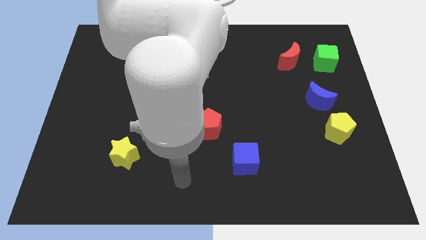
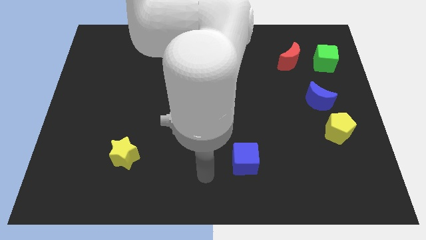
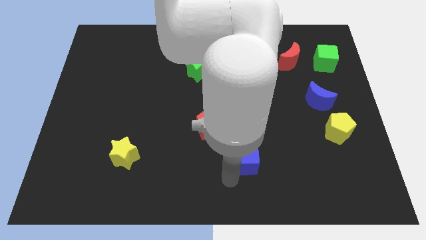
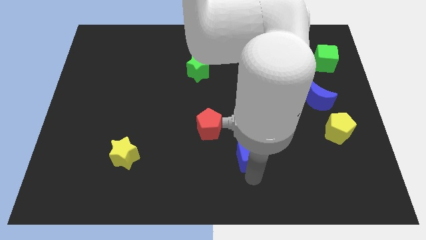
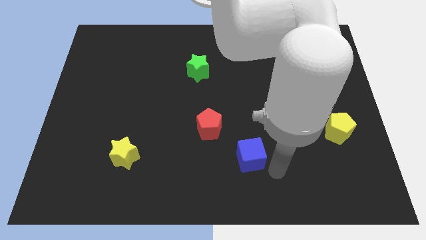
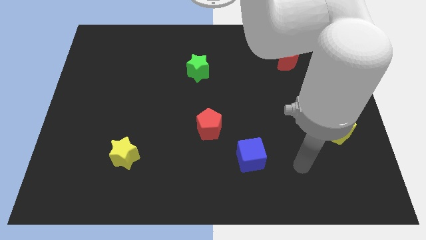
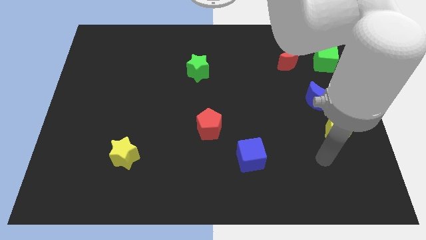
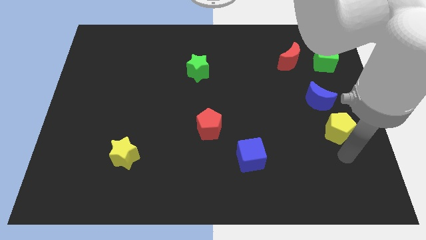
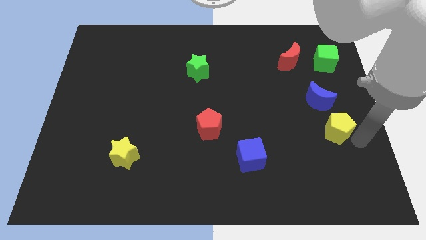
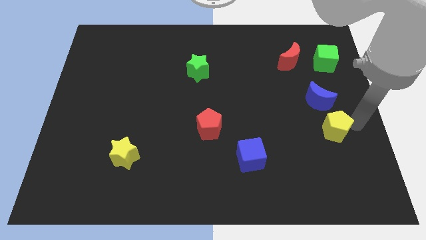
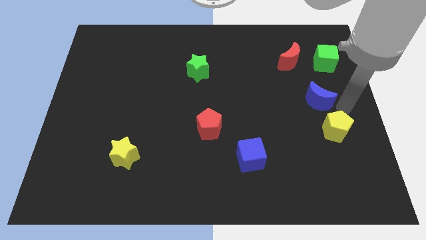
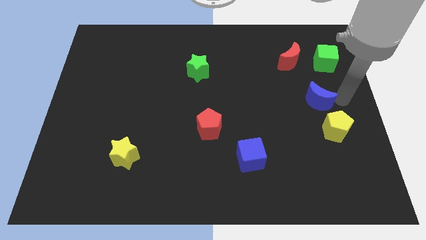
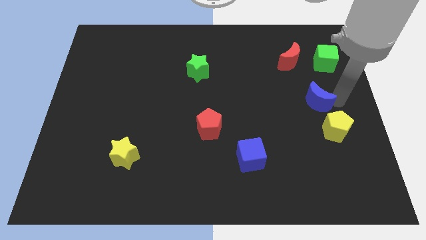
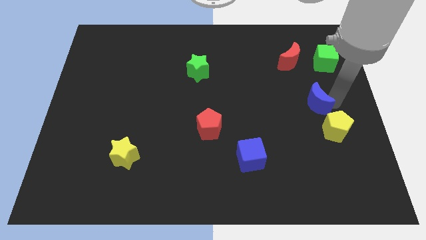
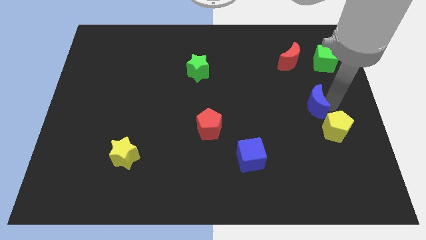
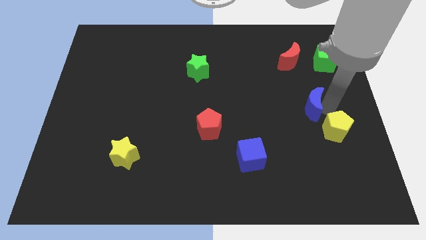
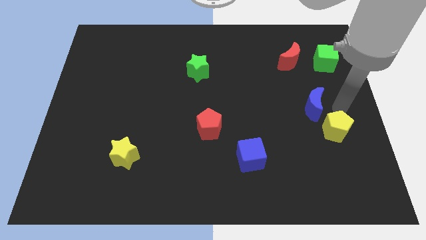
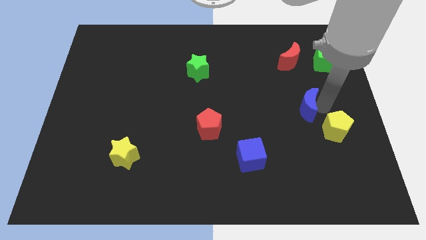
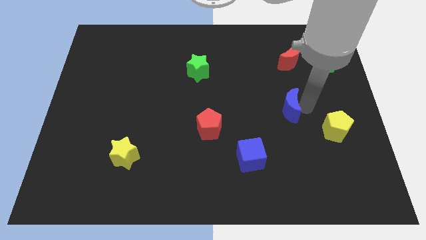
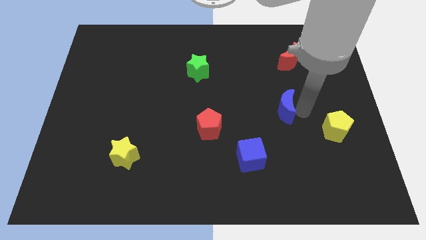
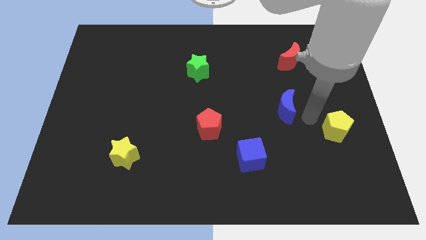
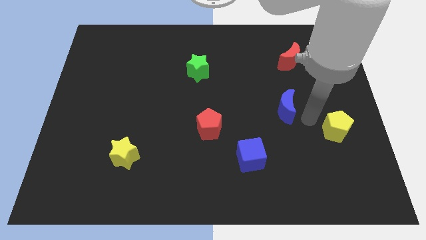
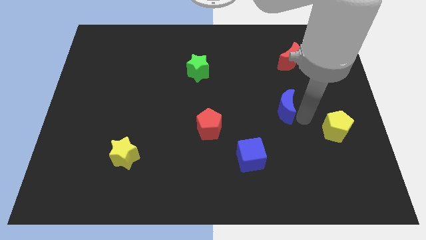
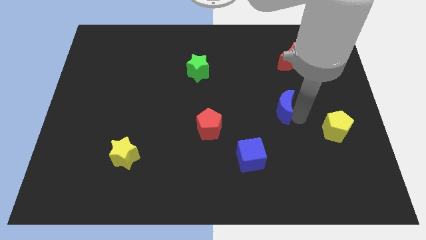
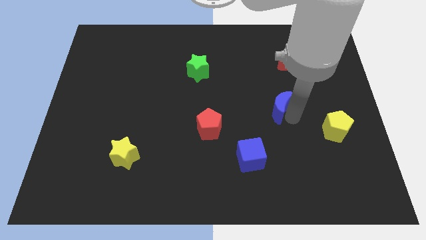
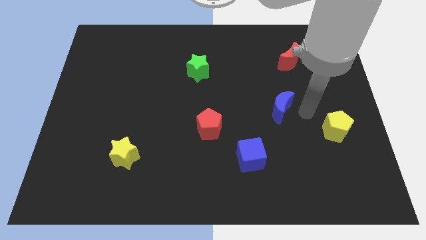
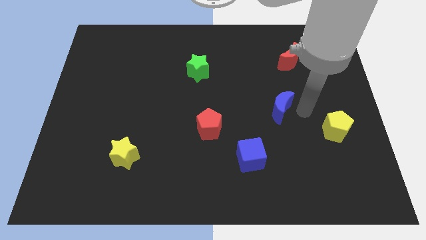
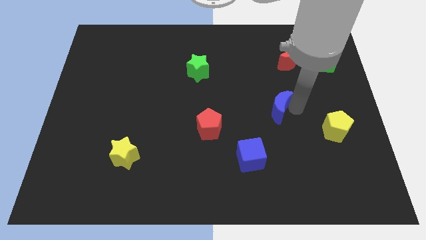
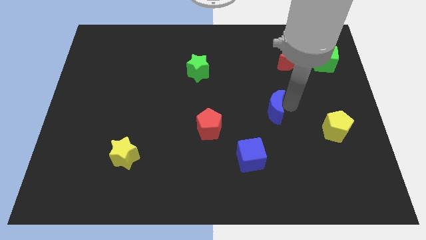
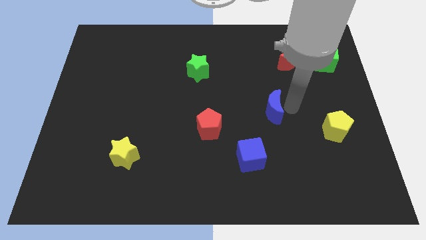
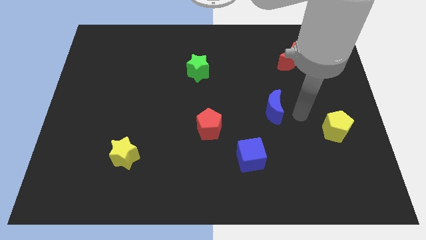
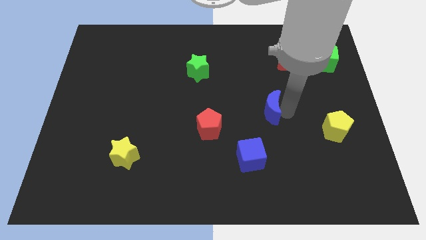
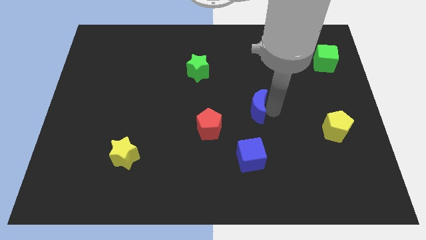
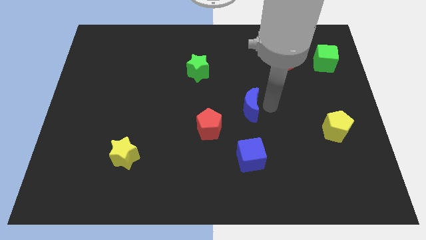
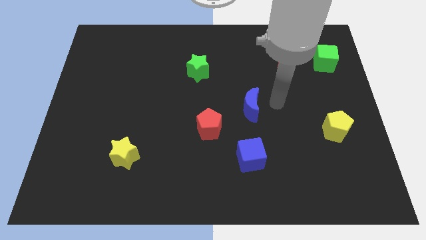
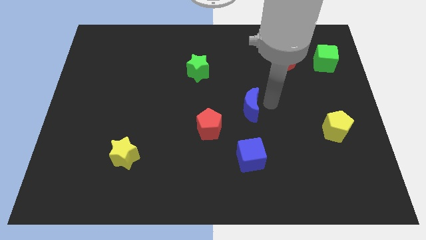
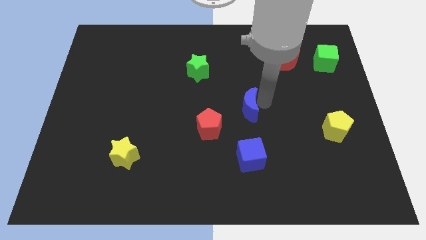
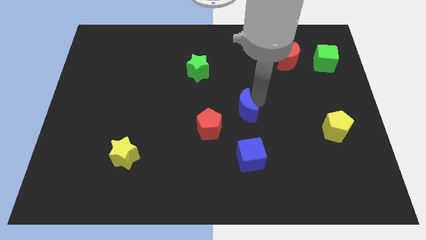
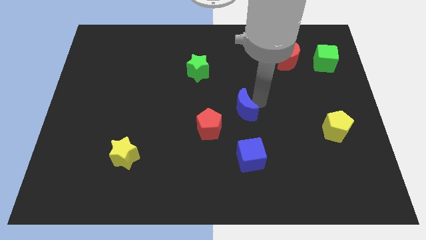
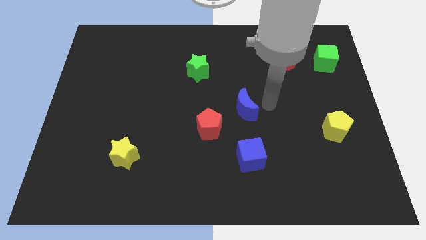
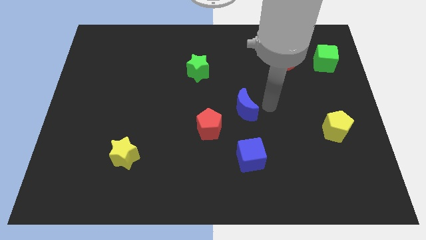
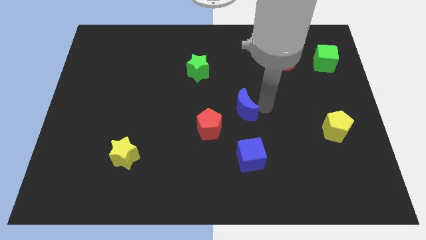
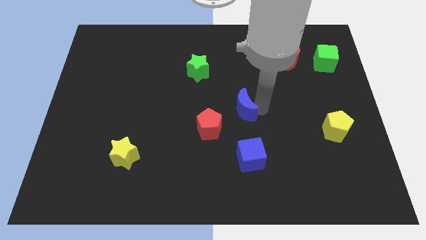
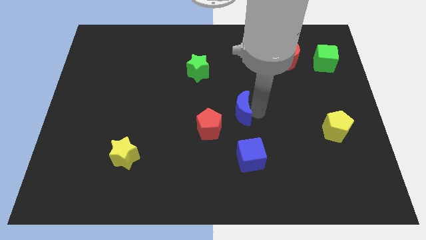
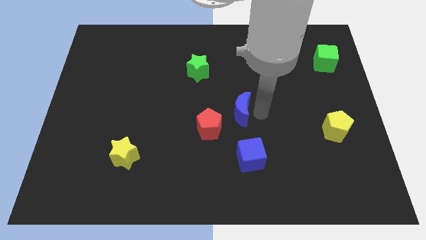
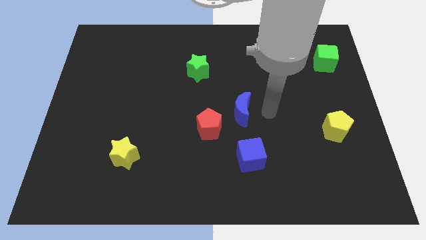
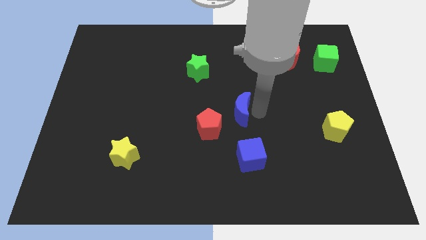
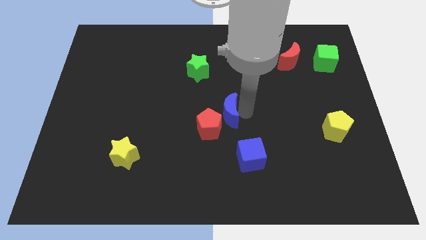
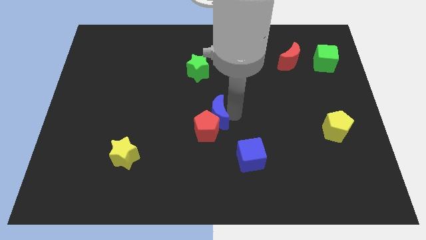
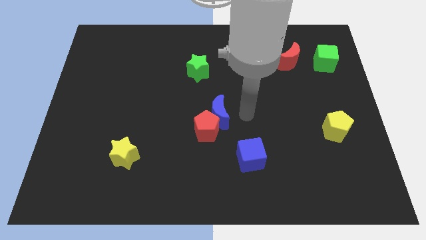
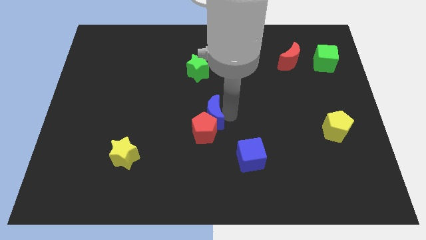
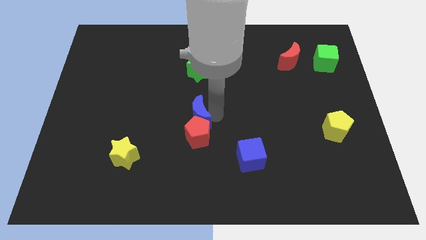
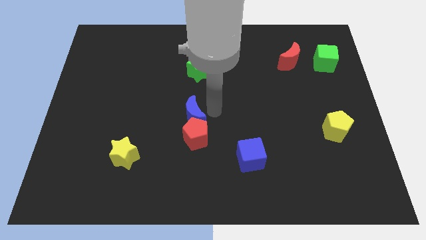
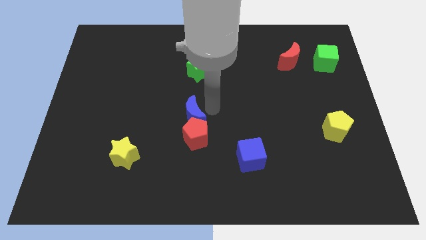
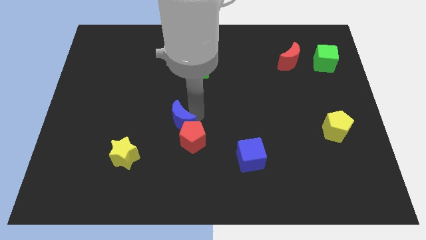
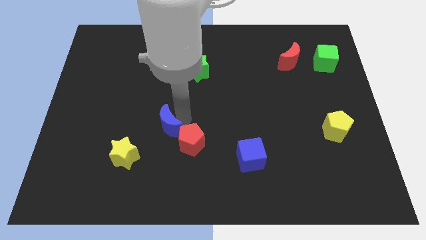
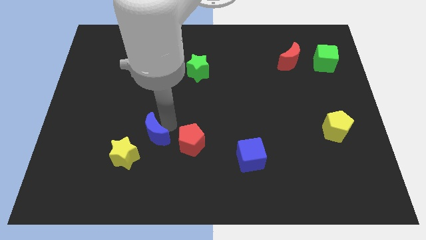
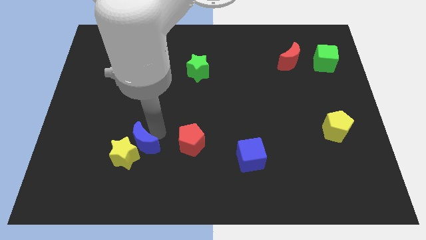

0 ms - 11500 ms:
move the blue moon next to the yellow star

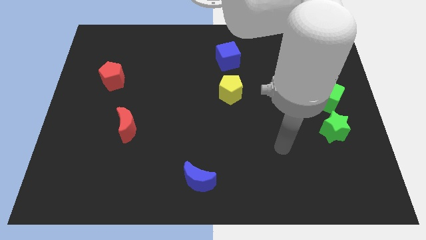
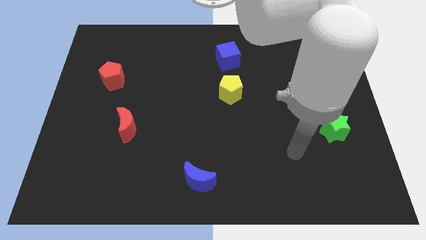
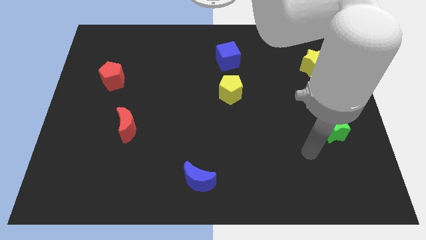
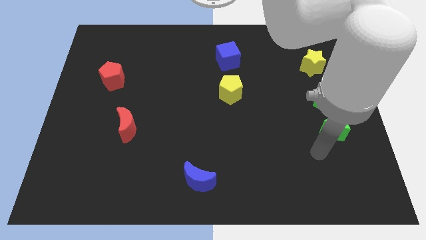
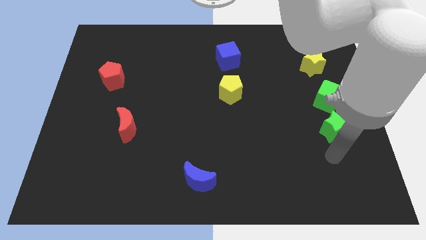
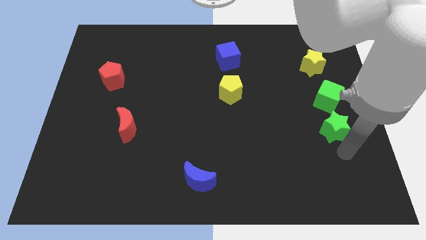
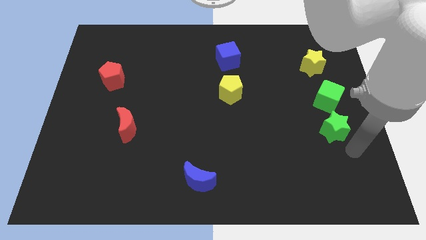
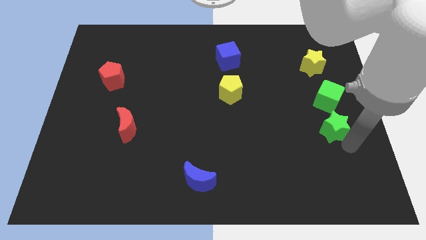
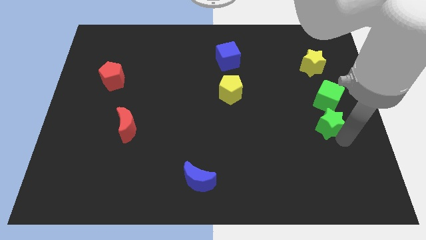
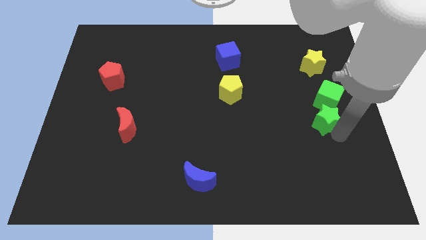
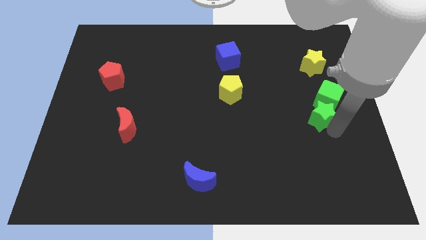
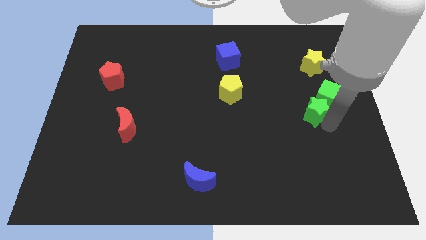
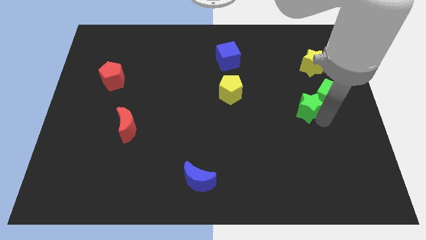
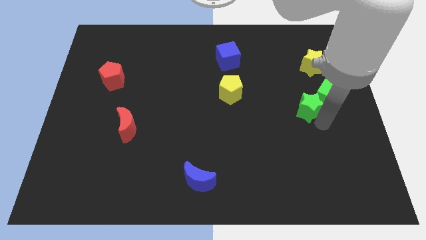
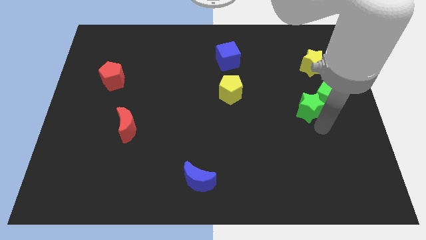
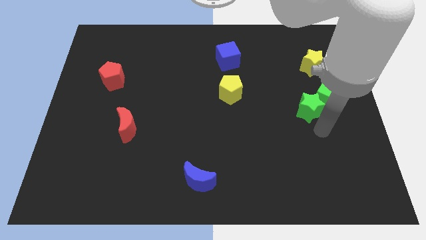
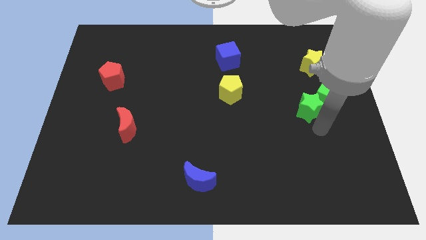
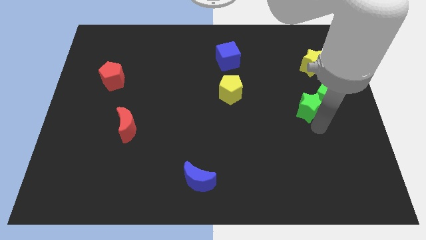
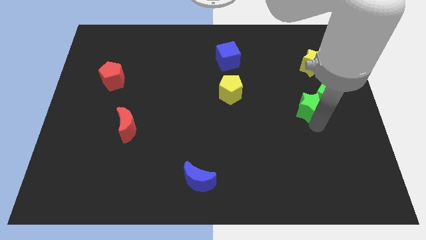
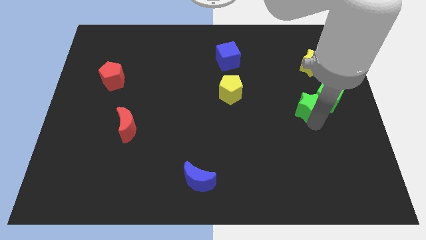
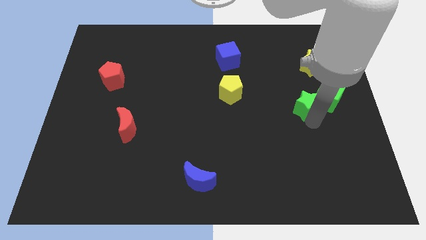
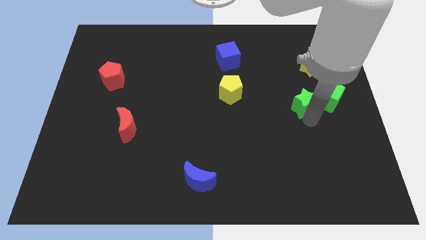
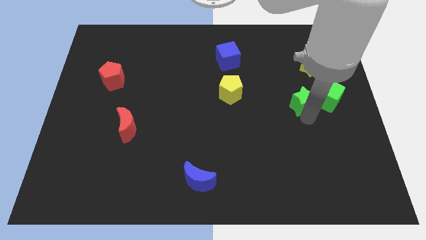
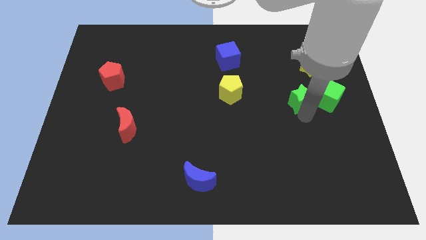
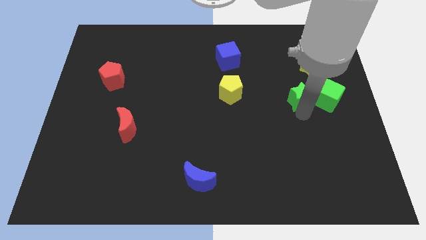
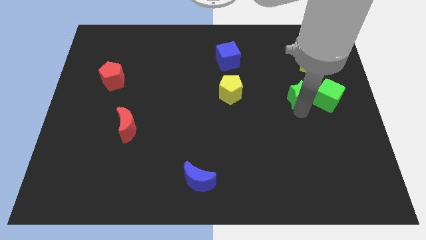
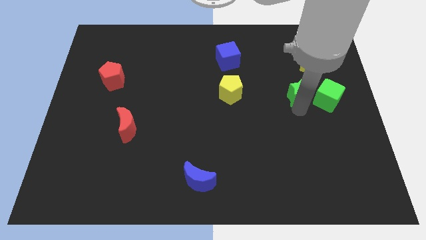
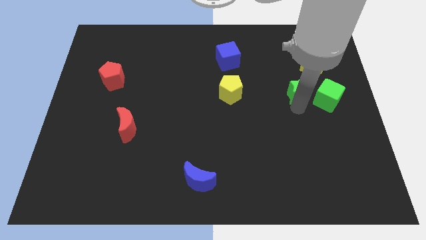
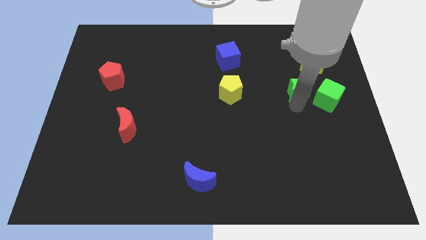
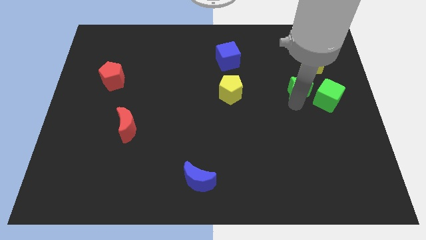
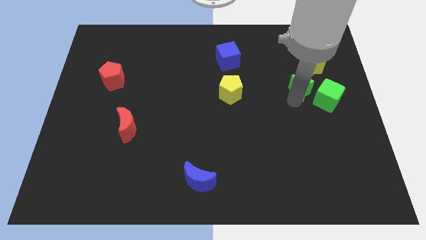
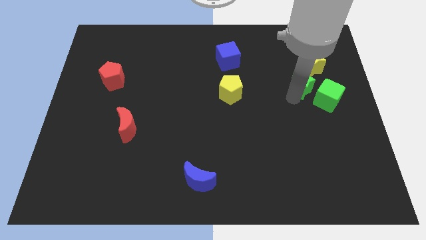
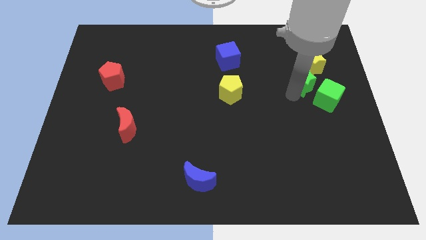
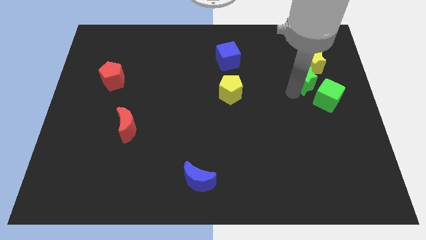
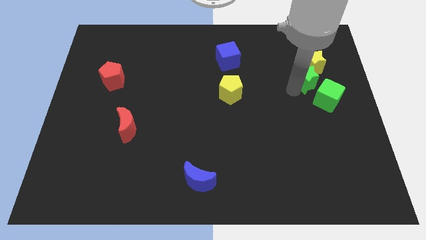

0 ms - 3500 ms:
put the green star next to the yellow star
